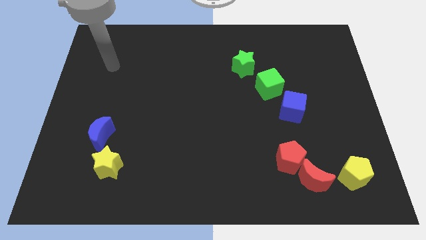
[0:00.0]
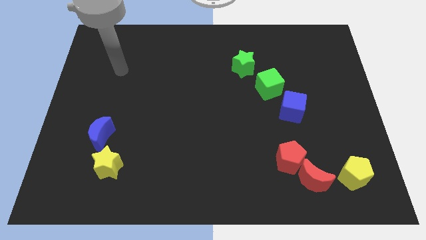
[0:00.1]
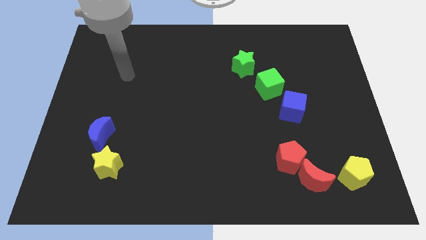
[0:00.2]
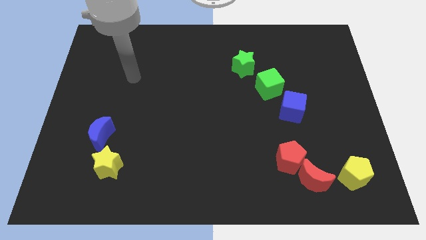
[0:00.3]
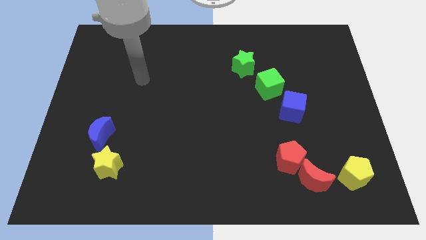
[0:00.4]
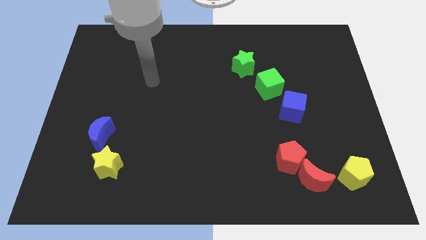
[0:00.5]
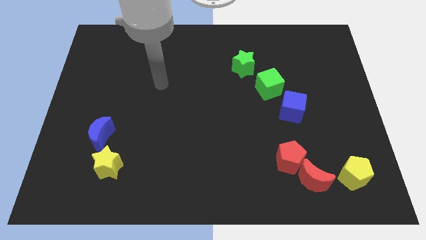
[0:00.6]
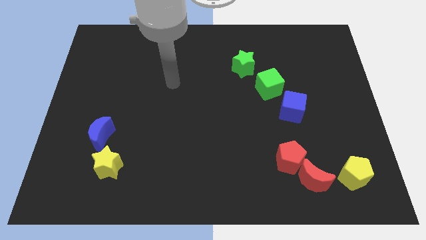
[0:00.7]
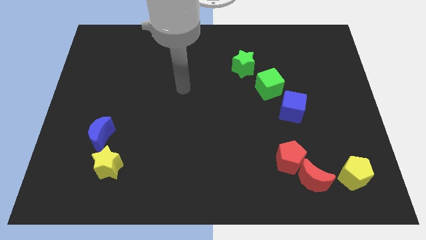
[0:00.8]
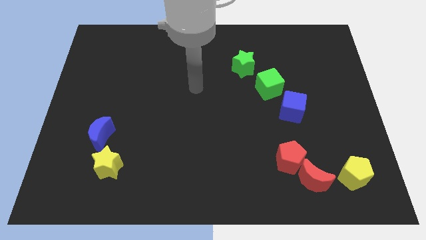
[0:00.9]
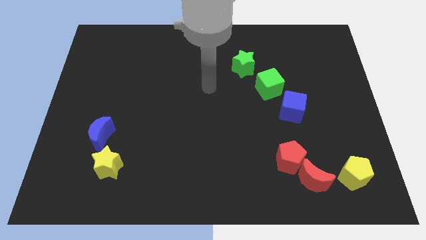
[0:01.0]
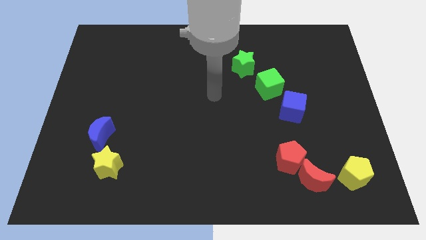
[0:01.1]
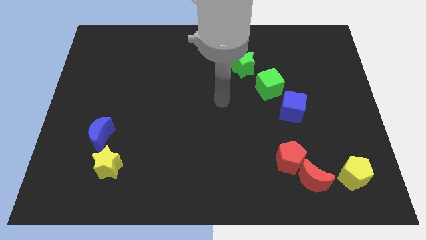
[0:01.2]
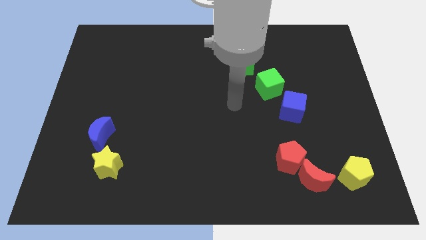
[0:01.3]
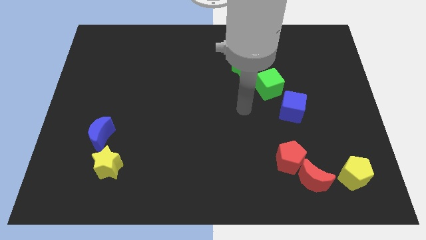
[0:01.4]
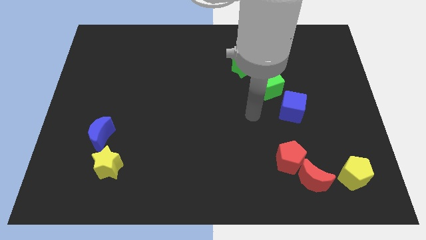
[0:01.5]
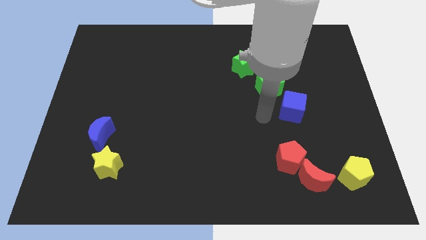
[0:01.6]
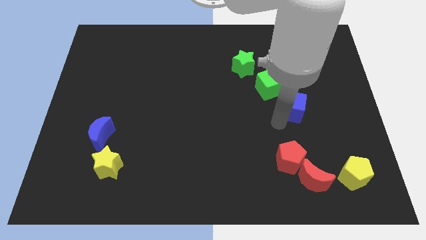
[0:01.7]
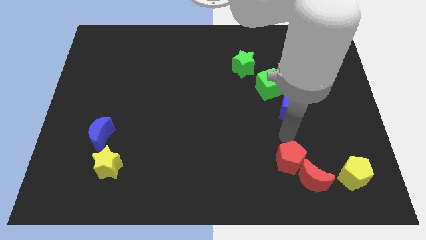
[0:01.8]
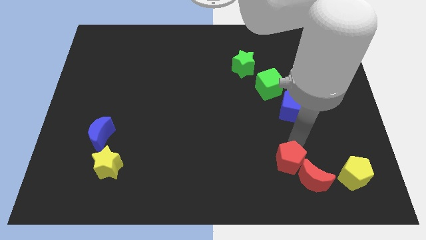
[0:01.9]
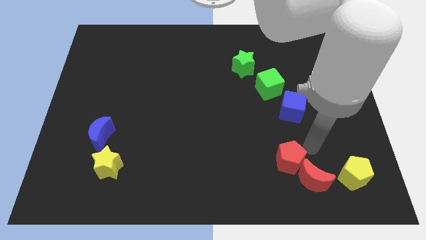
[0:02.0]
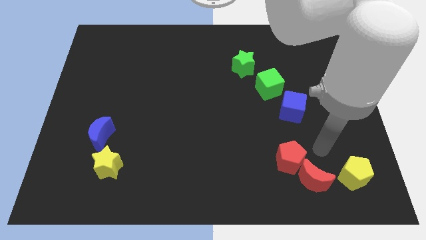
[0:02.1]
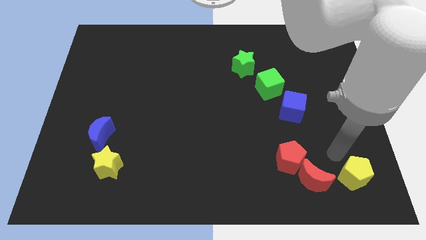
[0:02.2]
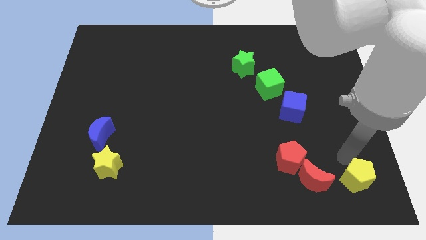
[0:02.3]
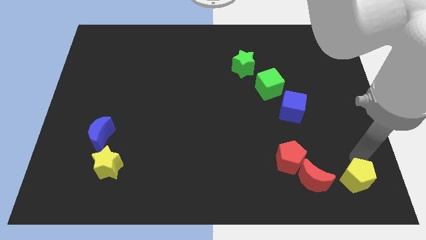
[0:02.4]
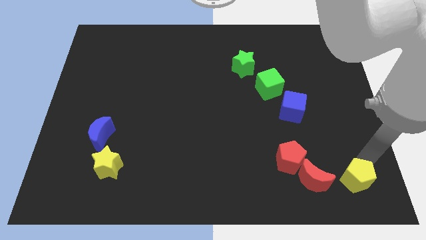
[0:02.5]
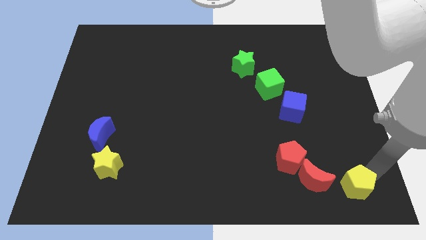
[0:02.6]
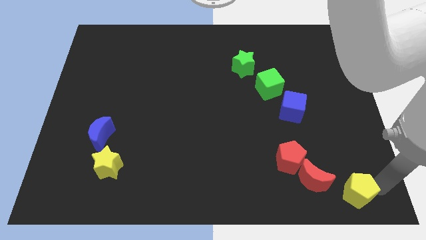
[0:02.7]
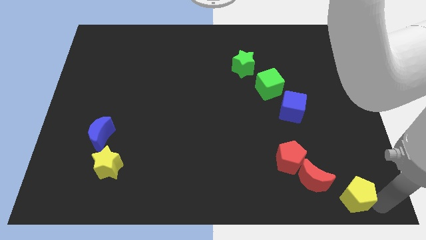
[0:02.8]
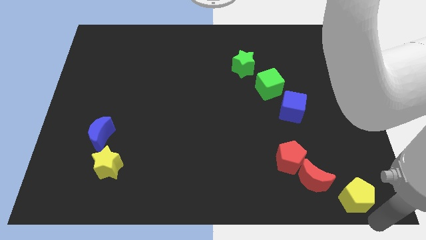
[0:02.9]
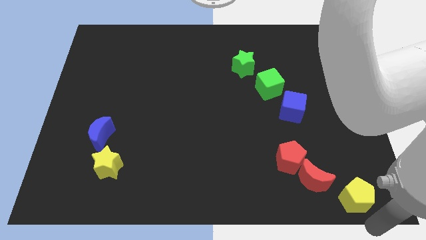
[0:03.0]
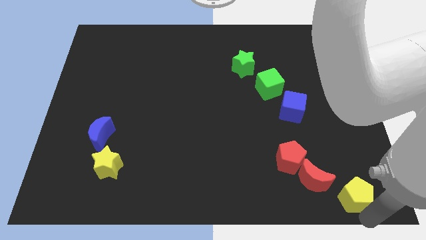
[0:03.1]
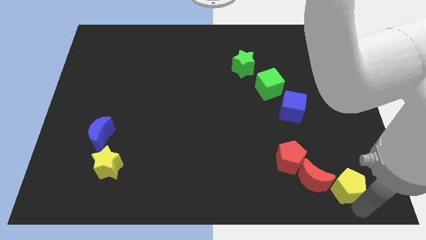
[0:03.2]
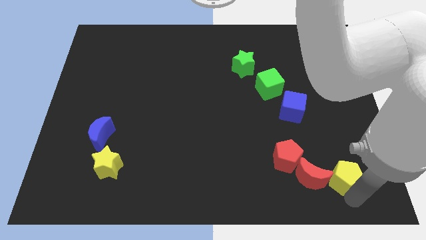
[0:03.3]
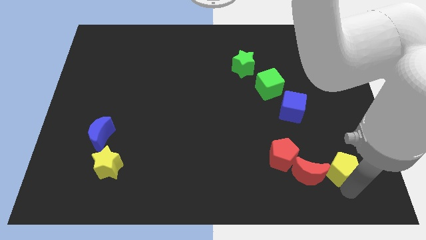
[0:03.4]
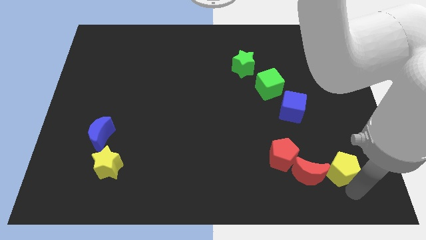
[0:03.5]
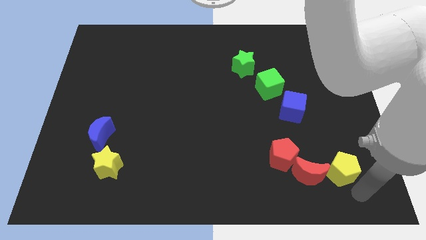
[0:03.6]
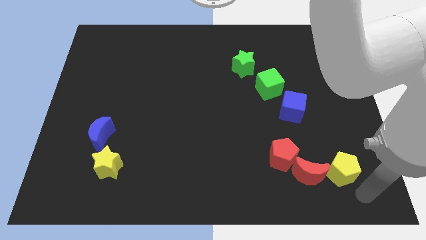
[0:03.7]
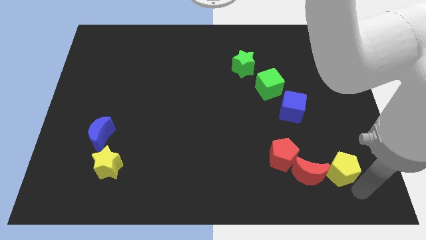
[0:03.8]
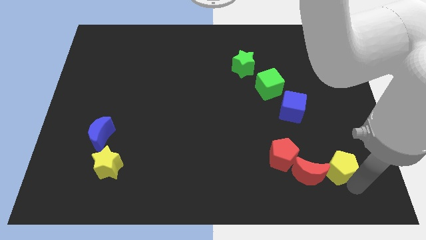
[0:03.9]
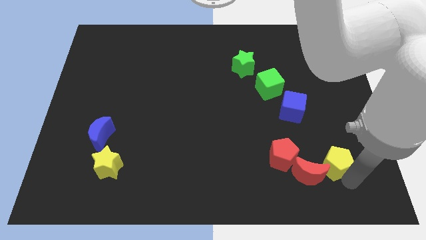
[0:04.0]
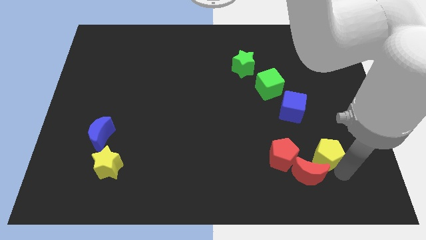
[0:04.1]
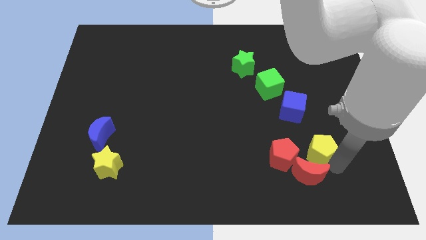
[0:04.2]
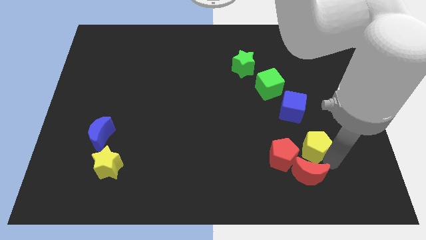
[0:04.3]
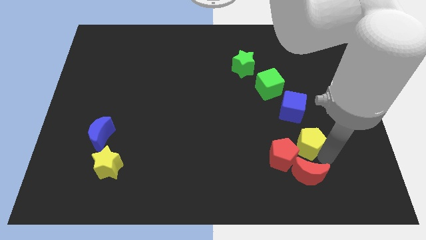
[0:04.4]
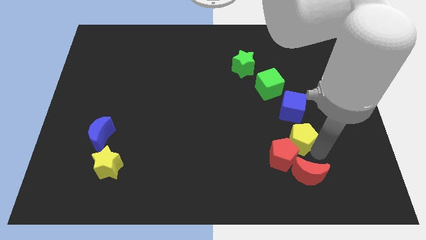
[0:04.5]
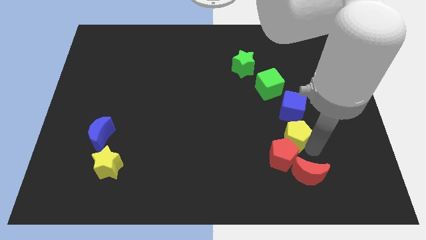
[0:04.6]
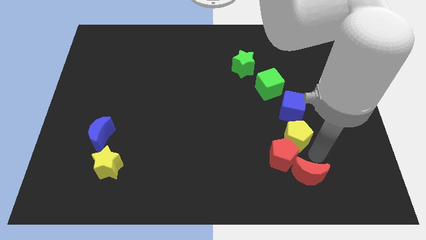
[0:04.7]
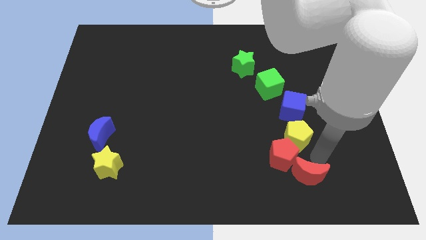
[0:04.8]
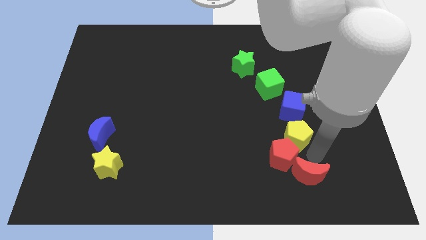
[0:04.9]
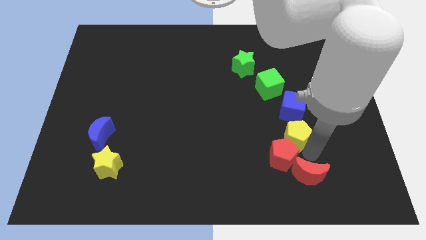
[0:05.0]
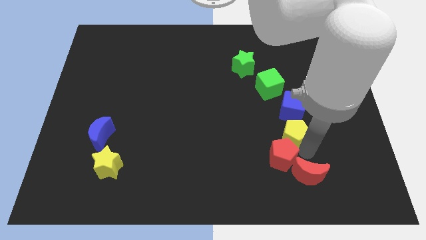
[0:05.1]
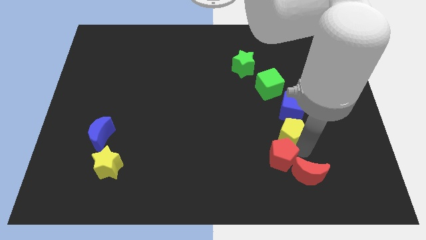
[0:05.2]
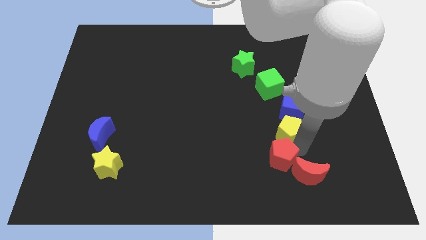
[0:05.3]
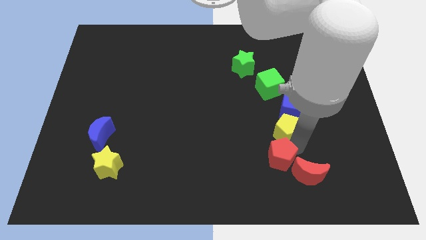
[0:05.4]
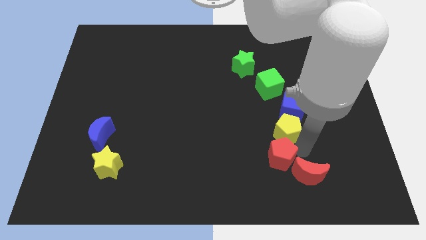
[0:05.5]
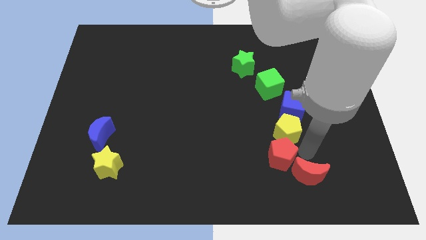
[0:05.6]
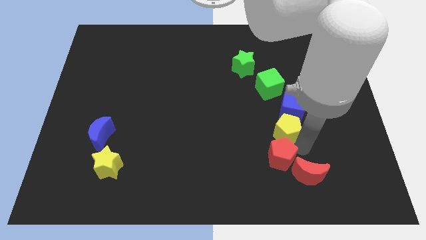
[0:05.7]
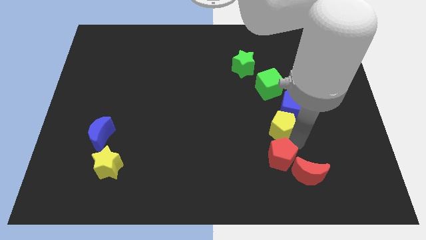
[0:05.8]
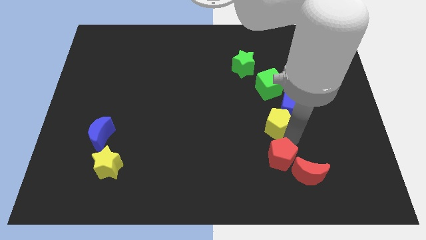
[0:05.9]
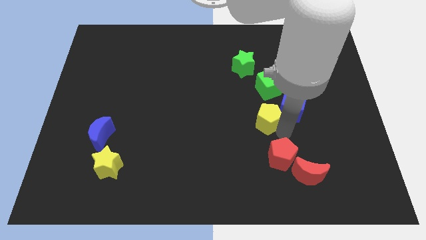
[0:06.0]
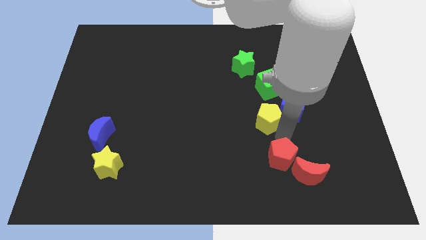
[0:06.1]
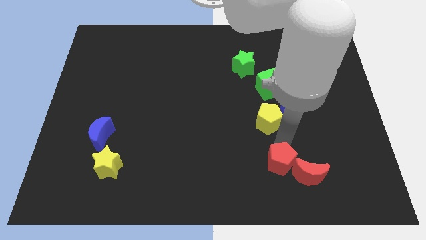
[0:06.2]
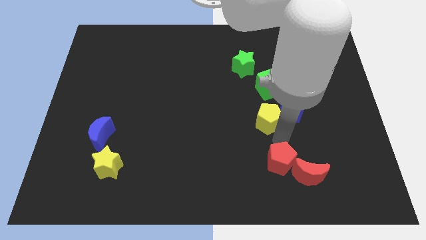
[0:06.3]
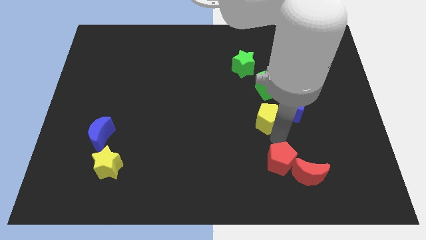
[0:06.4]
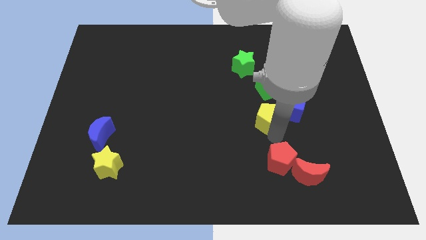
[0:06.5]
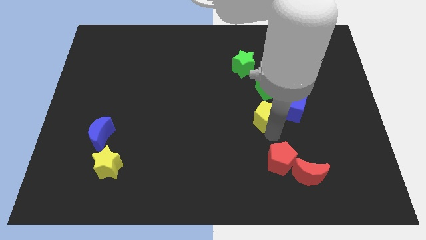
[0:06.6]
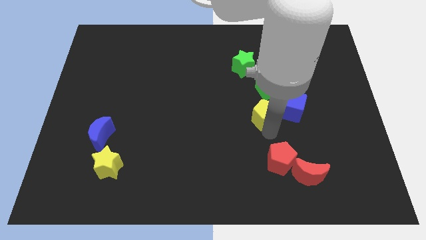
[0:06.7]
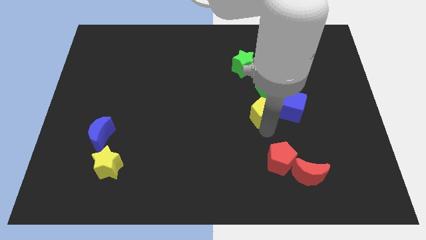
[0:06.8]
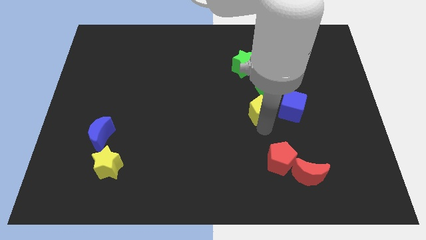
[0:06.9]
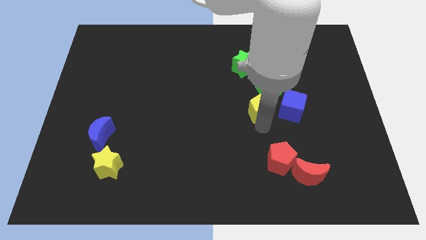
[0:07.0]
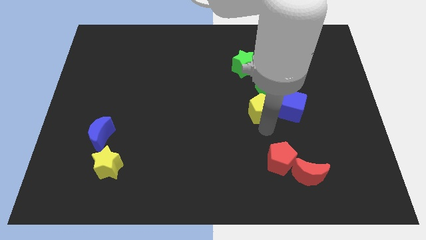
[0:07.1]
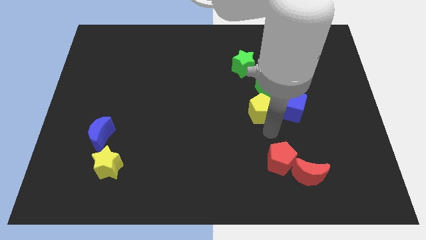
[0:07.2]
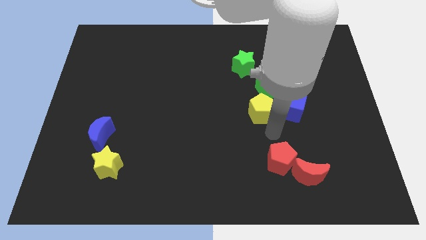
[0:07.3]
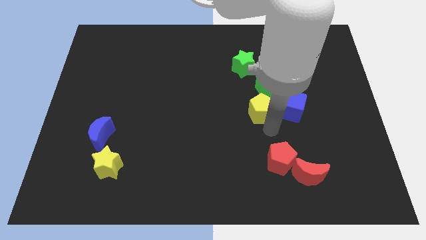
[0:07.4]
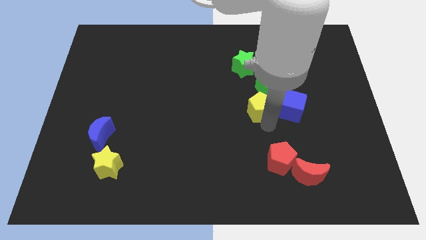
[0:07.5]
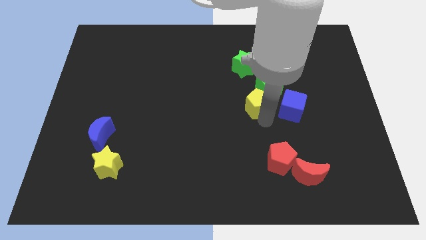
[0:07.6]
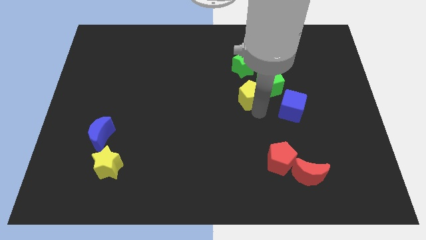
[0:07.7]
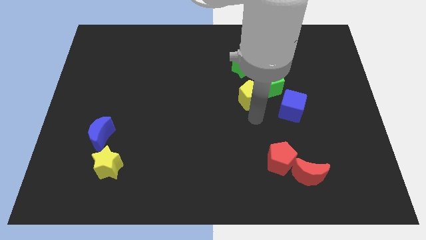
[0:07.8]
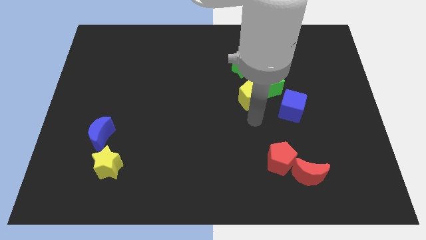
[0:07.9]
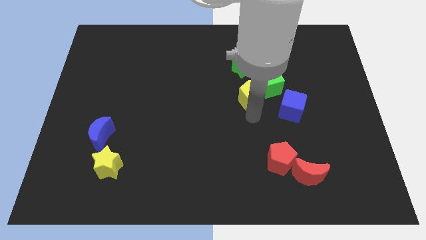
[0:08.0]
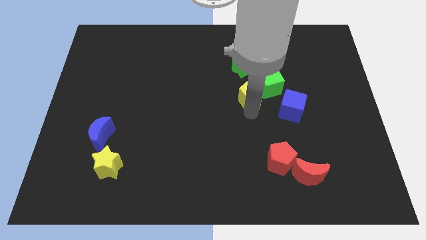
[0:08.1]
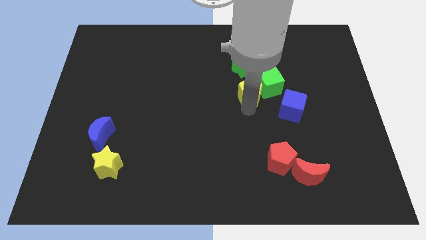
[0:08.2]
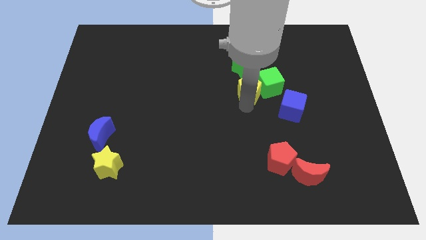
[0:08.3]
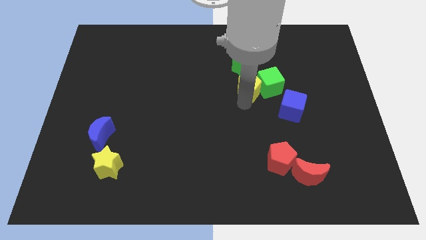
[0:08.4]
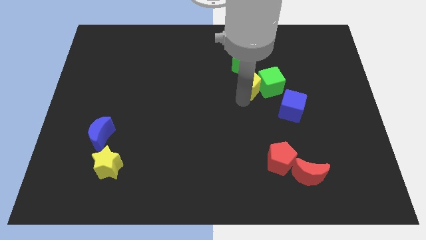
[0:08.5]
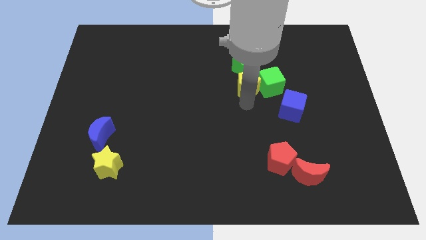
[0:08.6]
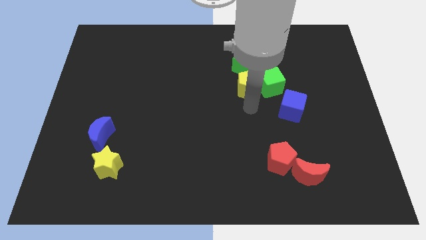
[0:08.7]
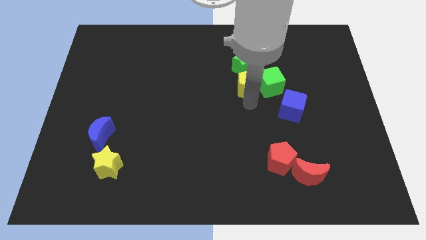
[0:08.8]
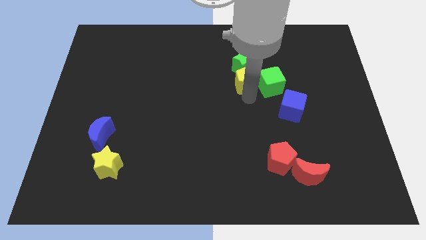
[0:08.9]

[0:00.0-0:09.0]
move the yellow pentagon to the green star
